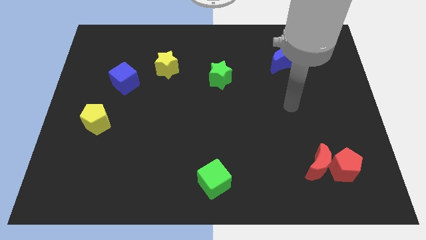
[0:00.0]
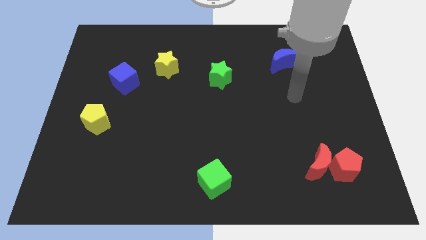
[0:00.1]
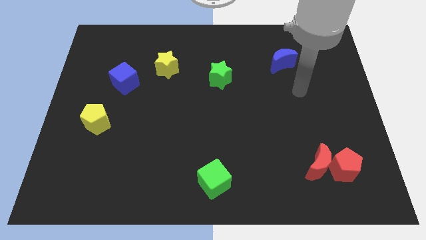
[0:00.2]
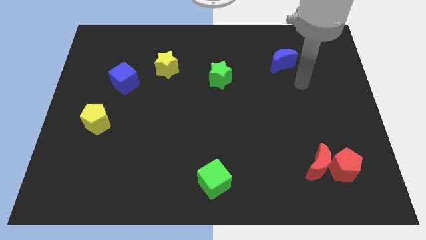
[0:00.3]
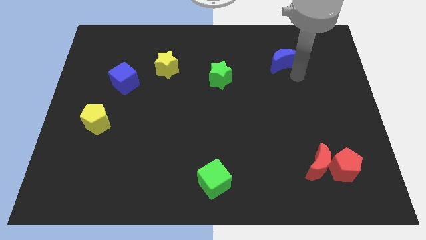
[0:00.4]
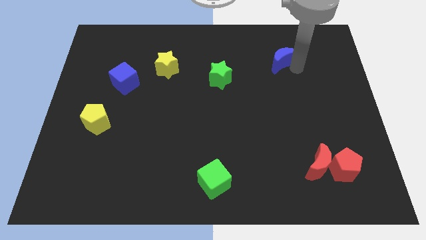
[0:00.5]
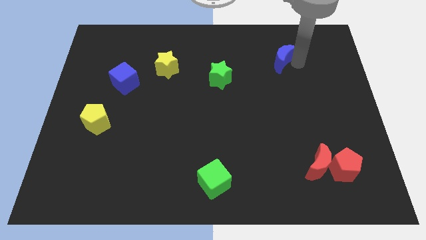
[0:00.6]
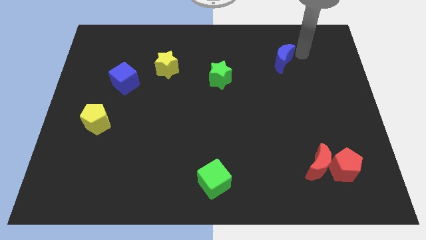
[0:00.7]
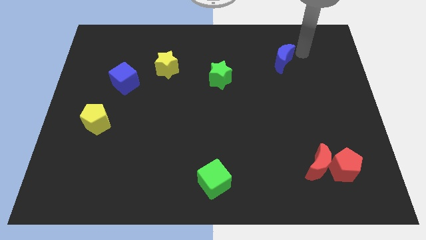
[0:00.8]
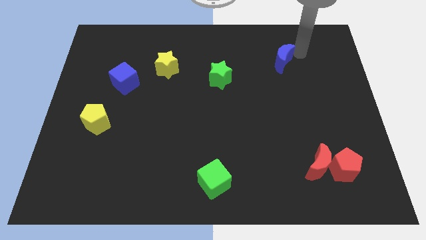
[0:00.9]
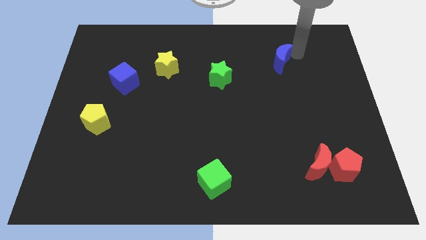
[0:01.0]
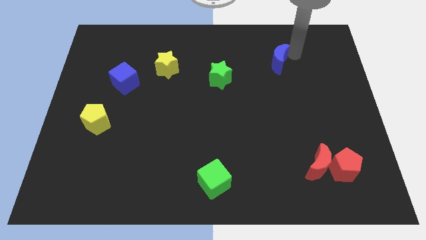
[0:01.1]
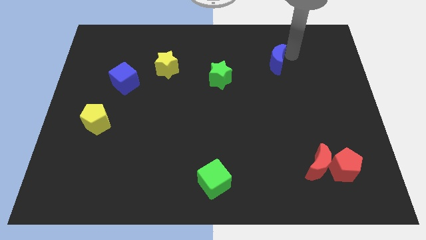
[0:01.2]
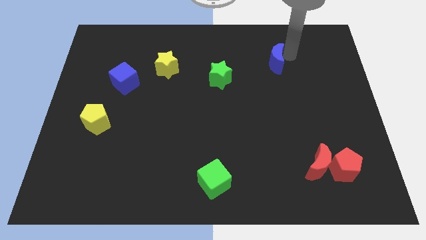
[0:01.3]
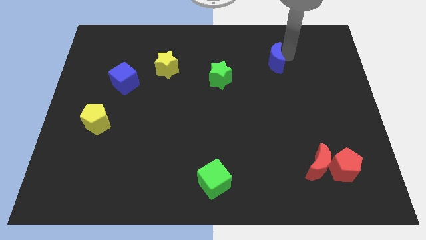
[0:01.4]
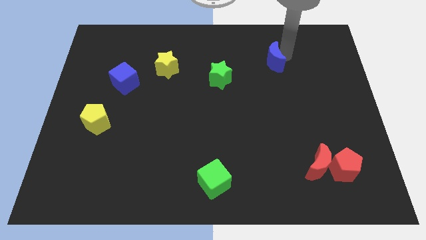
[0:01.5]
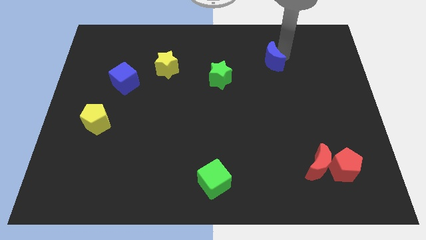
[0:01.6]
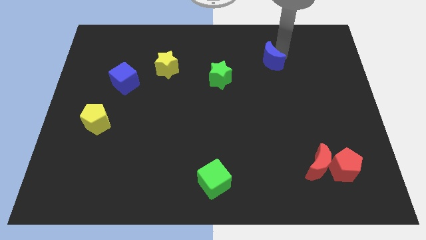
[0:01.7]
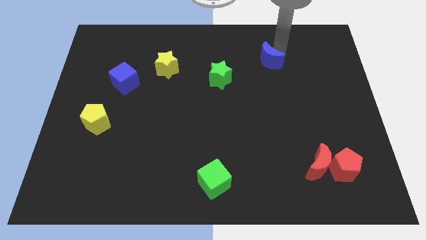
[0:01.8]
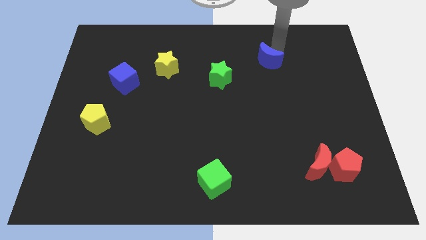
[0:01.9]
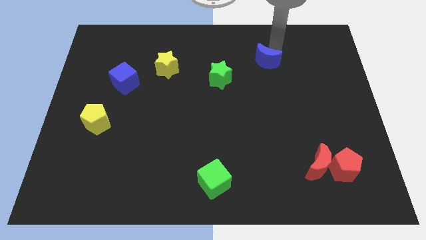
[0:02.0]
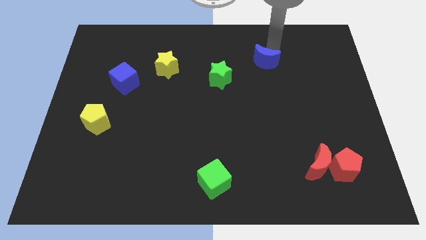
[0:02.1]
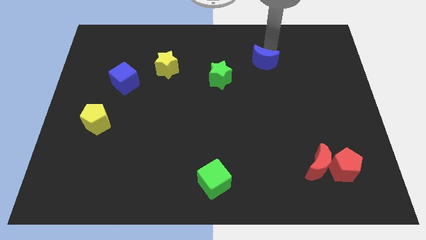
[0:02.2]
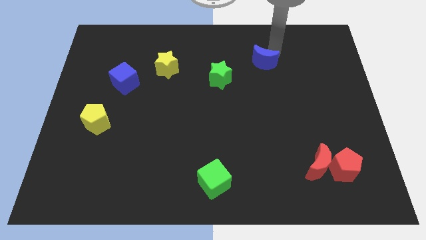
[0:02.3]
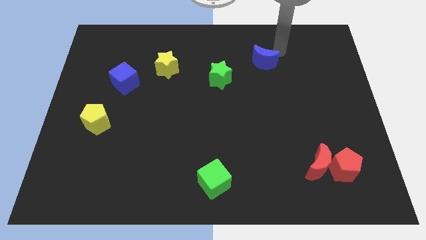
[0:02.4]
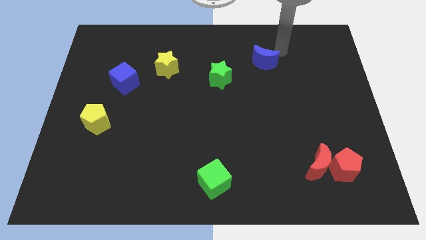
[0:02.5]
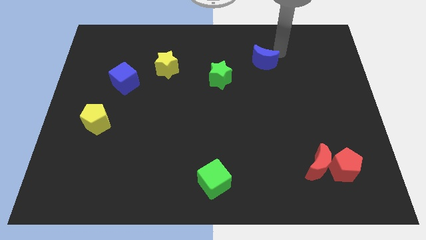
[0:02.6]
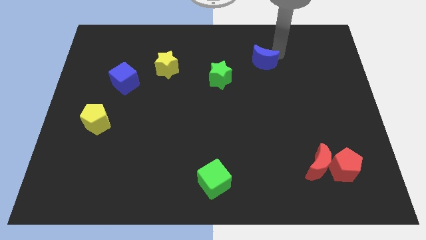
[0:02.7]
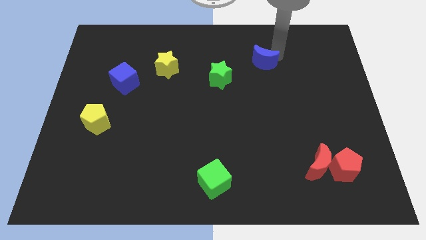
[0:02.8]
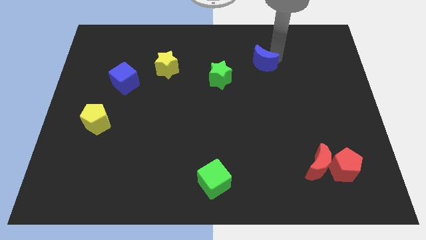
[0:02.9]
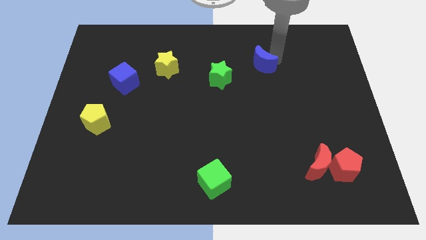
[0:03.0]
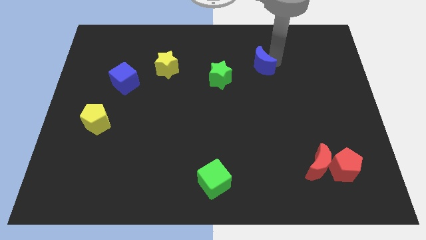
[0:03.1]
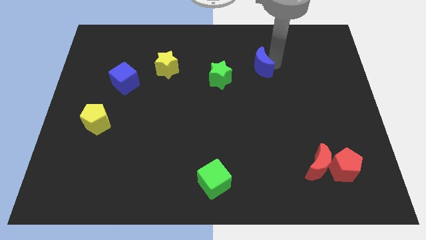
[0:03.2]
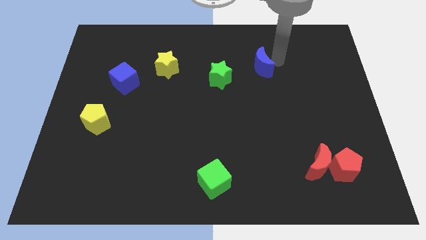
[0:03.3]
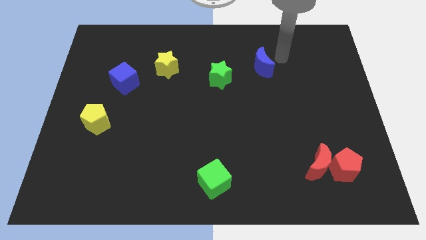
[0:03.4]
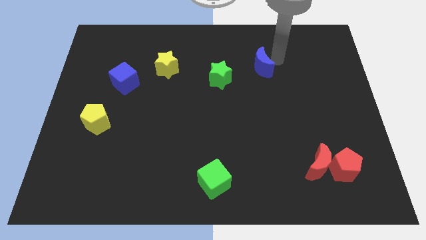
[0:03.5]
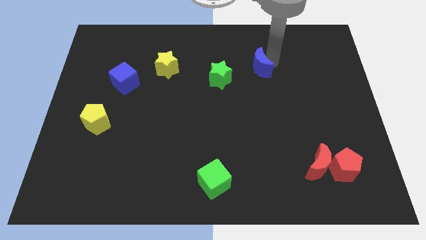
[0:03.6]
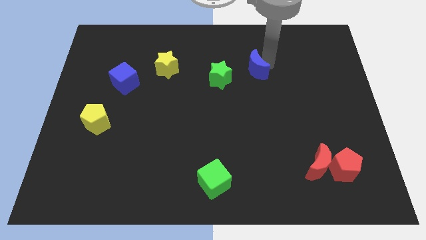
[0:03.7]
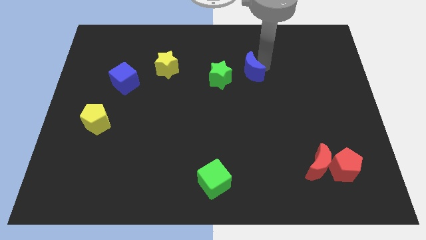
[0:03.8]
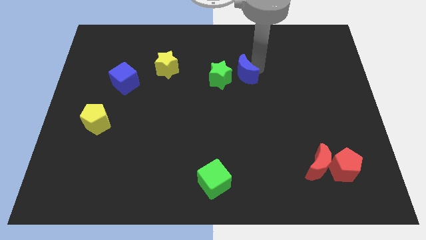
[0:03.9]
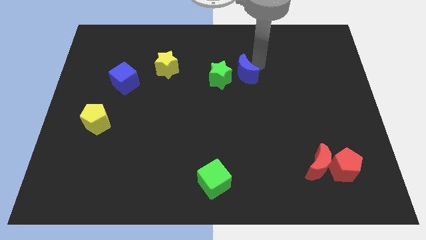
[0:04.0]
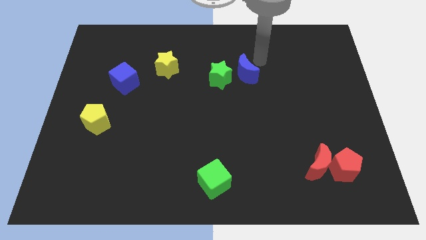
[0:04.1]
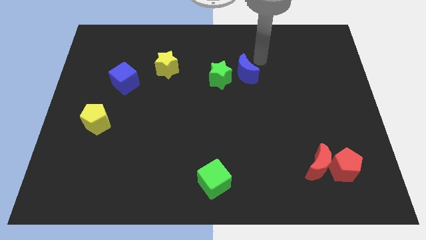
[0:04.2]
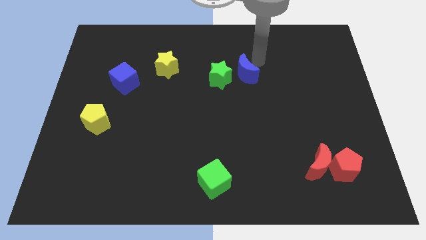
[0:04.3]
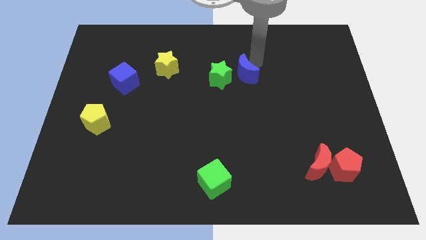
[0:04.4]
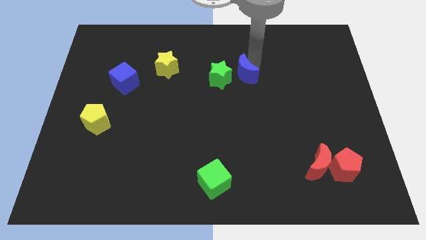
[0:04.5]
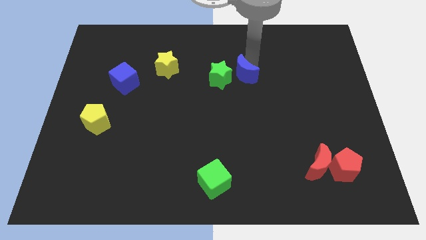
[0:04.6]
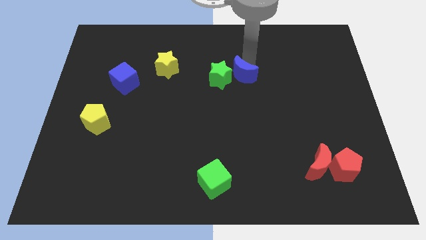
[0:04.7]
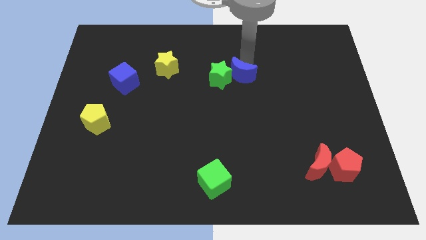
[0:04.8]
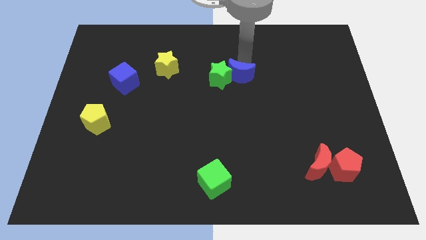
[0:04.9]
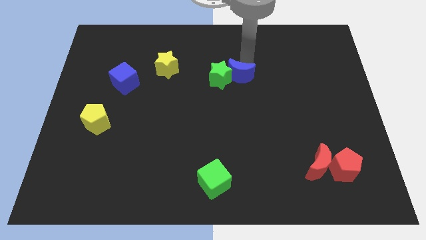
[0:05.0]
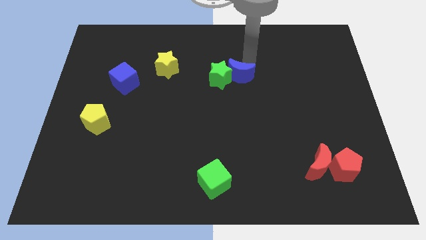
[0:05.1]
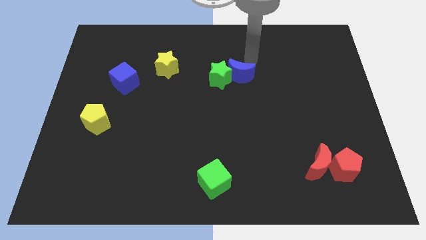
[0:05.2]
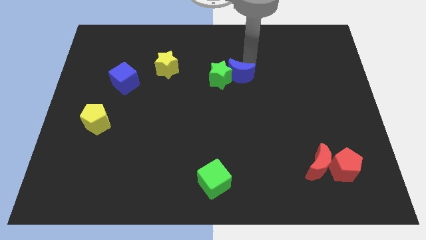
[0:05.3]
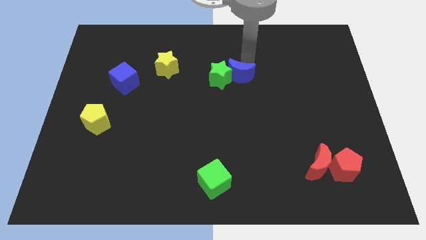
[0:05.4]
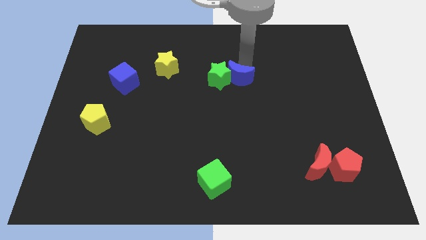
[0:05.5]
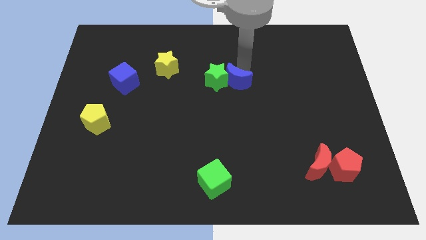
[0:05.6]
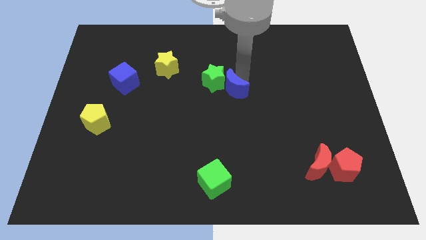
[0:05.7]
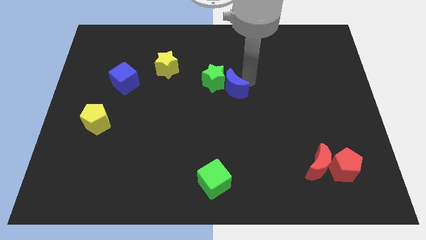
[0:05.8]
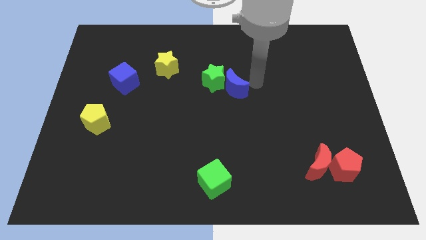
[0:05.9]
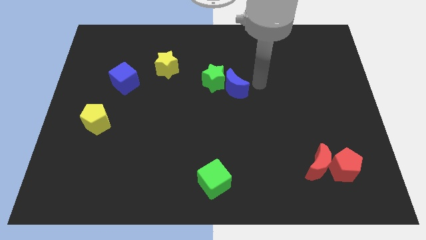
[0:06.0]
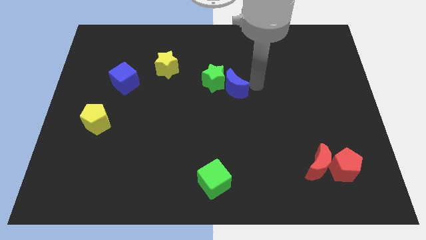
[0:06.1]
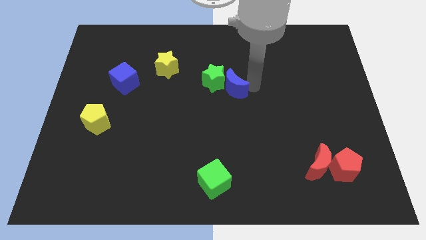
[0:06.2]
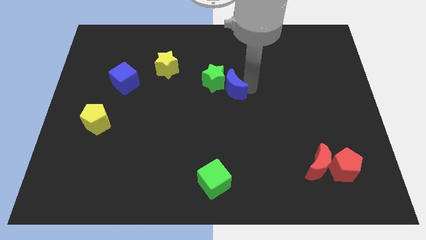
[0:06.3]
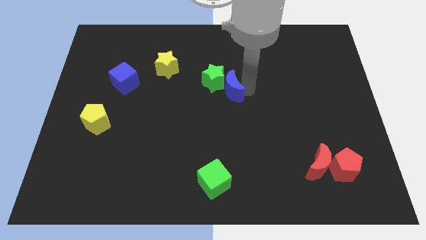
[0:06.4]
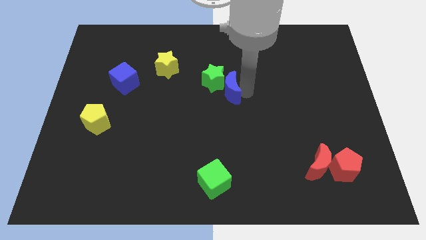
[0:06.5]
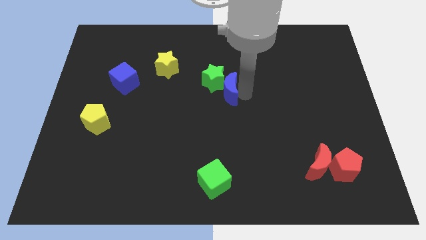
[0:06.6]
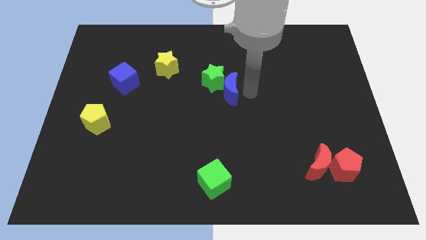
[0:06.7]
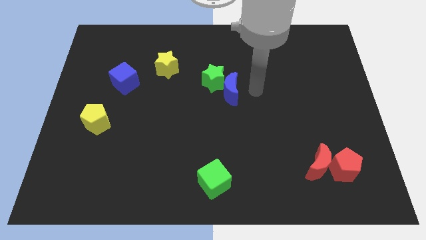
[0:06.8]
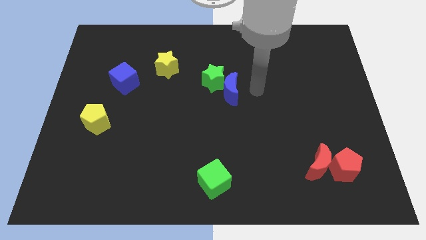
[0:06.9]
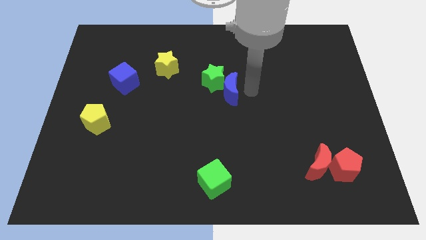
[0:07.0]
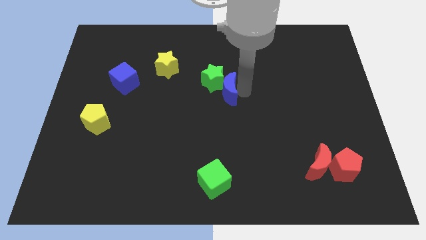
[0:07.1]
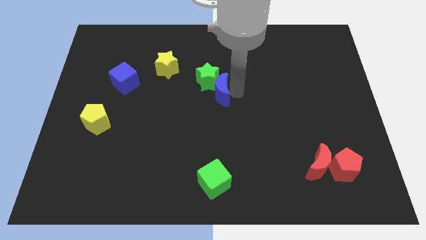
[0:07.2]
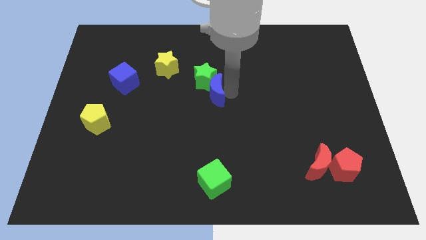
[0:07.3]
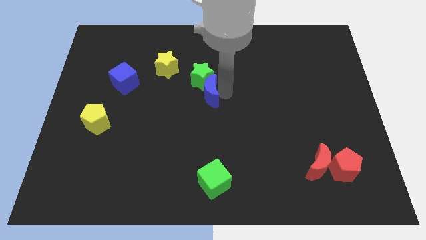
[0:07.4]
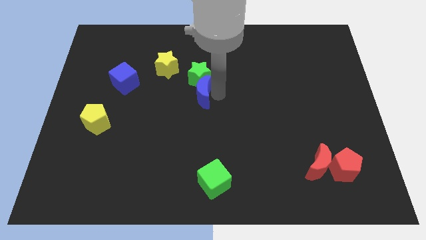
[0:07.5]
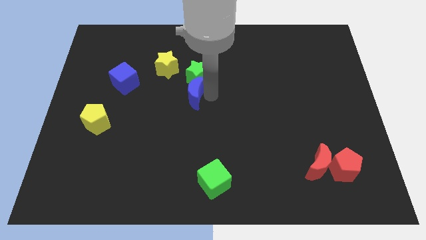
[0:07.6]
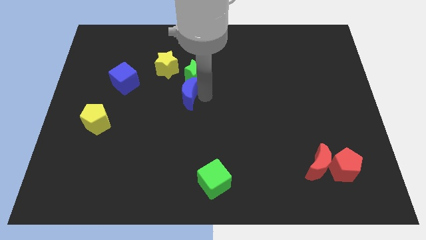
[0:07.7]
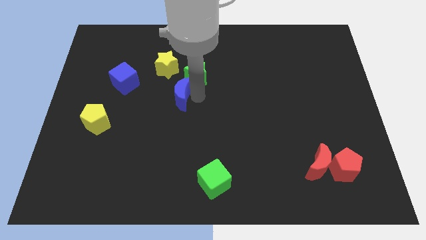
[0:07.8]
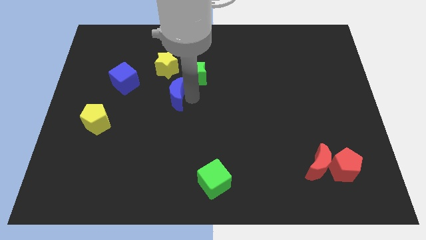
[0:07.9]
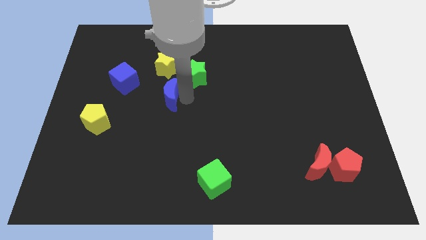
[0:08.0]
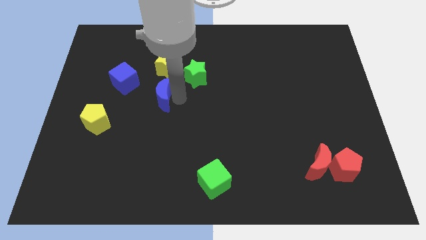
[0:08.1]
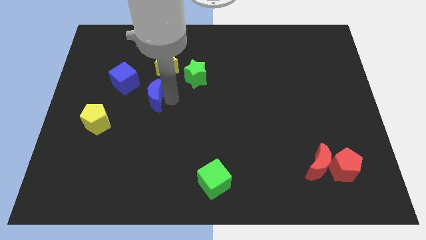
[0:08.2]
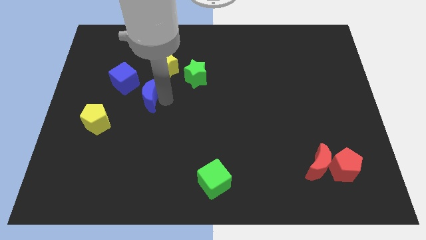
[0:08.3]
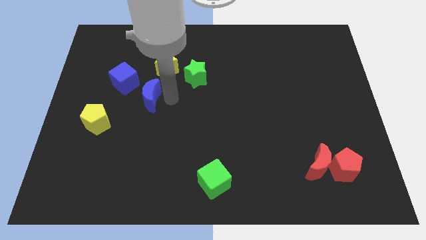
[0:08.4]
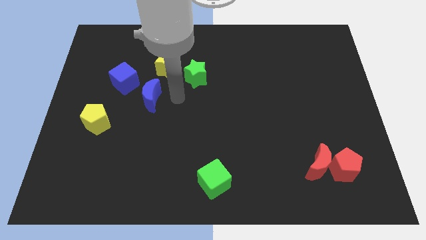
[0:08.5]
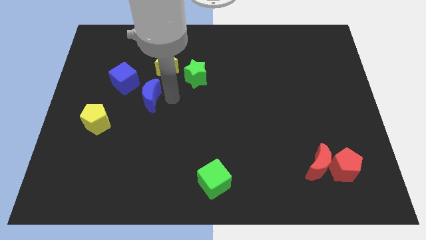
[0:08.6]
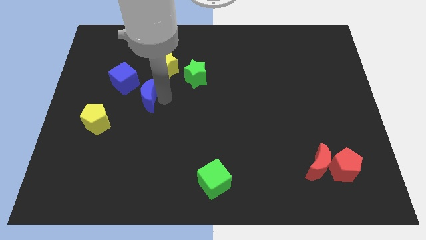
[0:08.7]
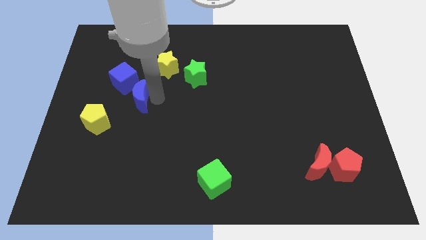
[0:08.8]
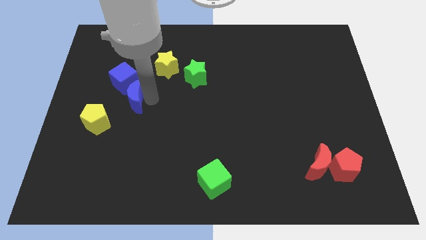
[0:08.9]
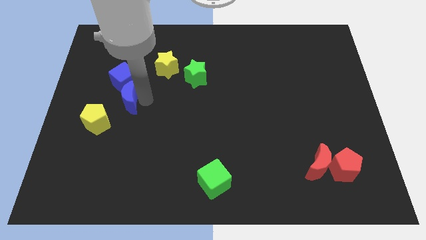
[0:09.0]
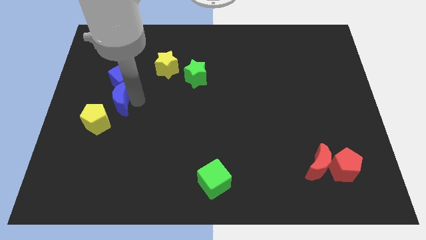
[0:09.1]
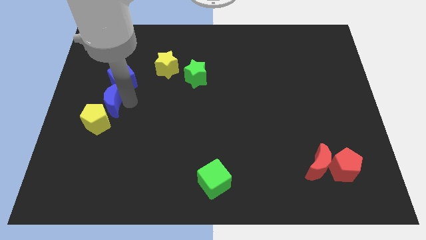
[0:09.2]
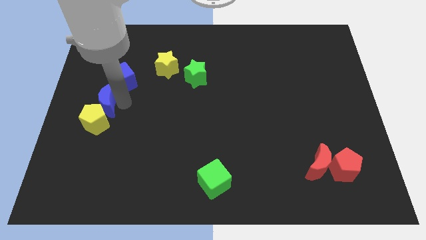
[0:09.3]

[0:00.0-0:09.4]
push the blue moon to the center left
